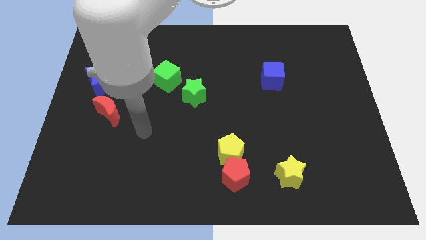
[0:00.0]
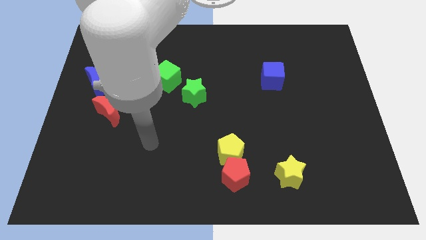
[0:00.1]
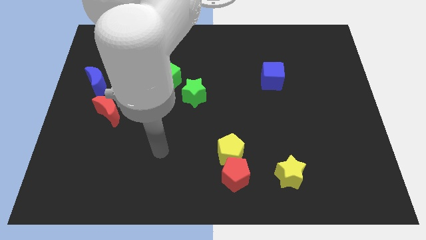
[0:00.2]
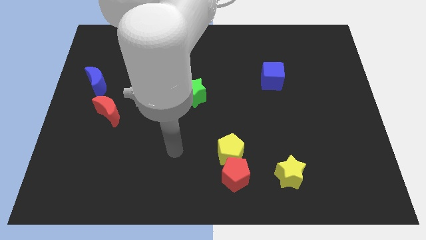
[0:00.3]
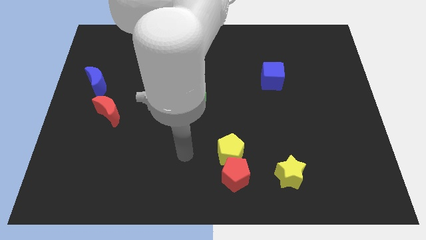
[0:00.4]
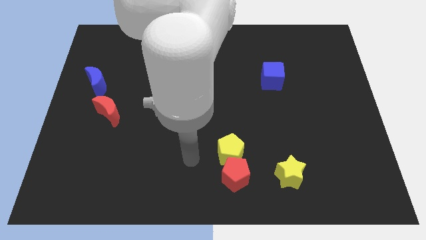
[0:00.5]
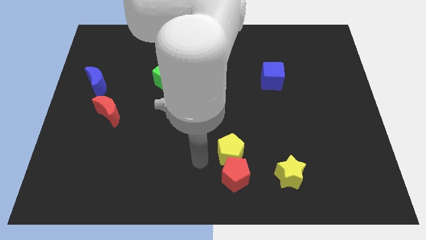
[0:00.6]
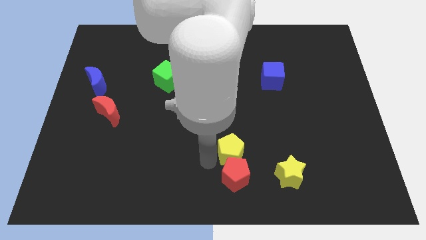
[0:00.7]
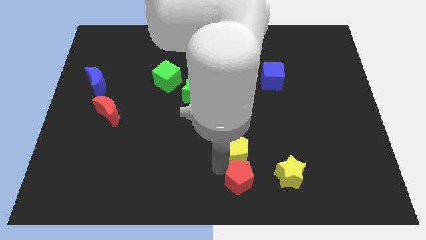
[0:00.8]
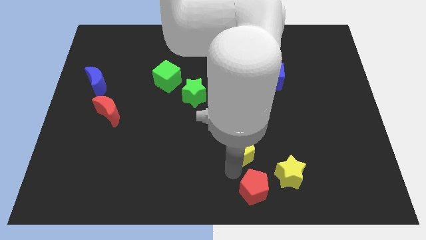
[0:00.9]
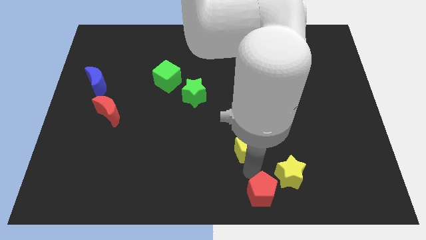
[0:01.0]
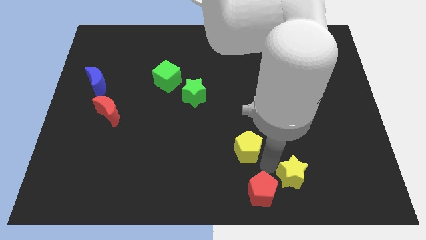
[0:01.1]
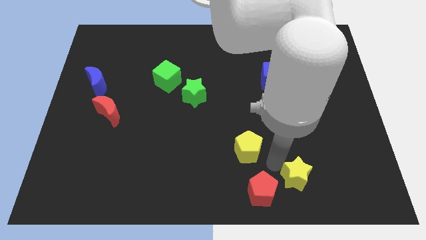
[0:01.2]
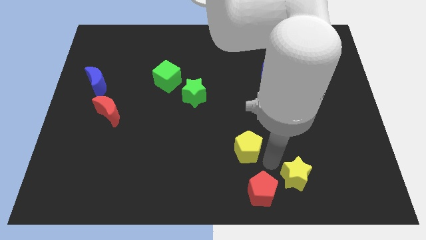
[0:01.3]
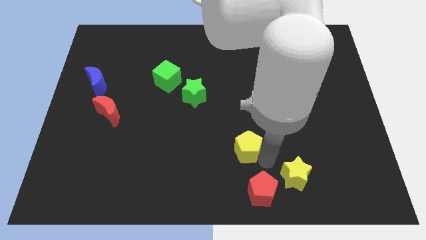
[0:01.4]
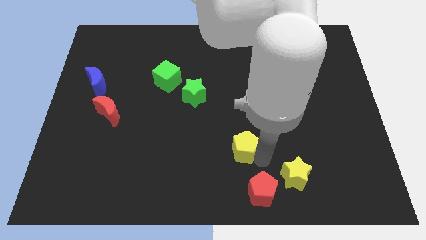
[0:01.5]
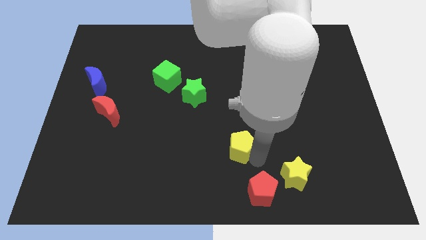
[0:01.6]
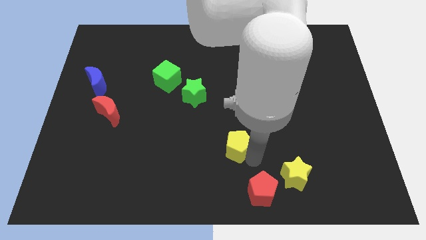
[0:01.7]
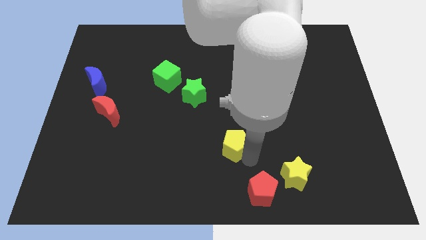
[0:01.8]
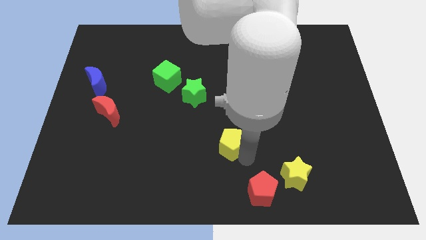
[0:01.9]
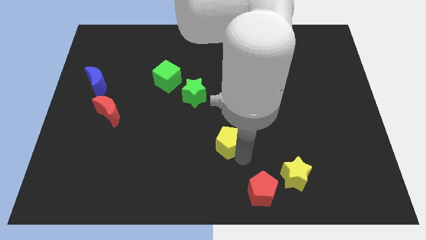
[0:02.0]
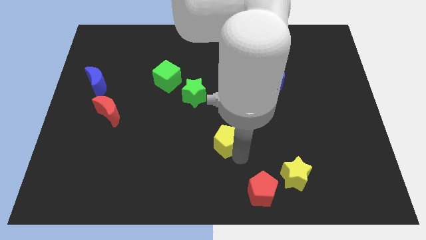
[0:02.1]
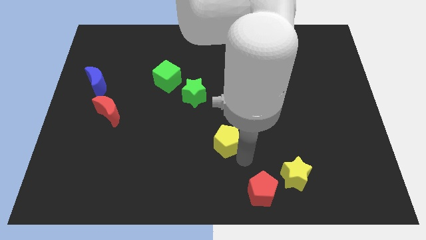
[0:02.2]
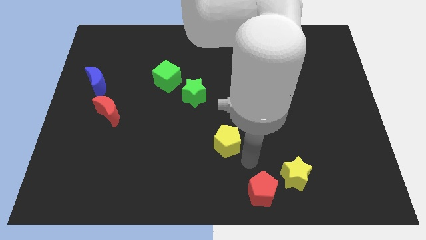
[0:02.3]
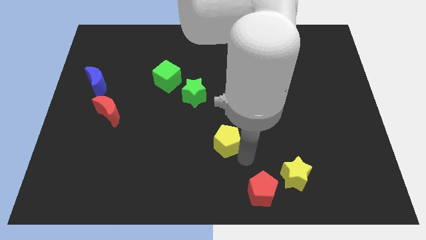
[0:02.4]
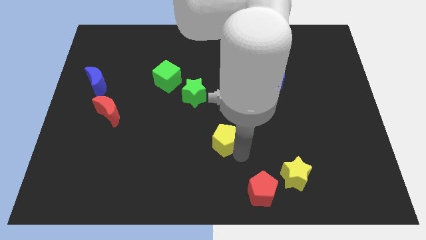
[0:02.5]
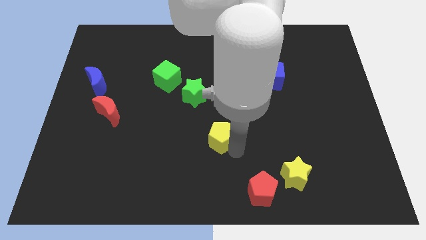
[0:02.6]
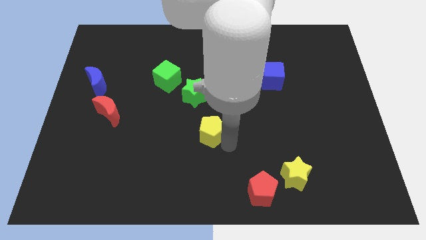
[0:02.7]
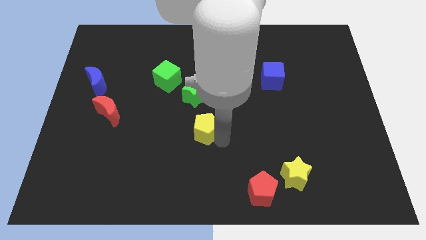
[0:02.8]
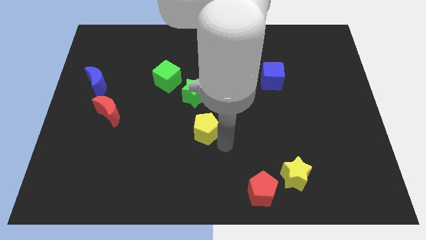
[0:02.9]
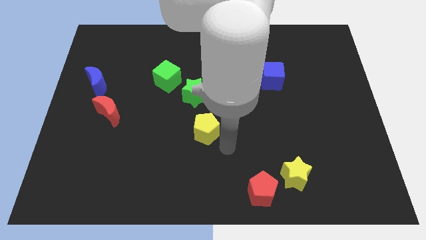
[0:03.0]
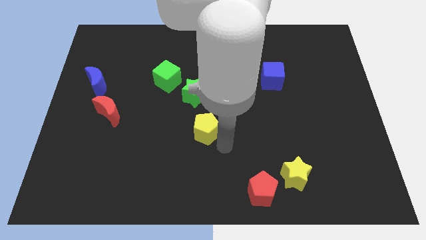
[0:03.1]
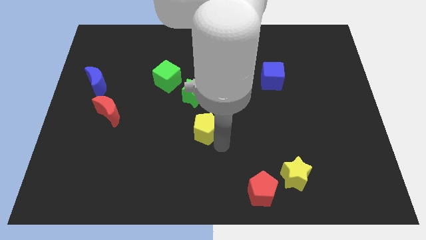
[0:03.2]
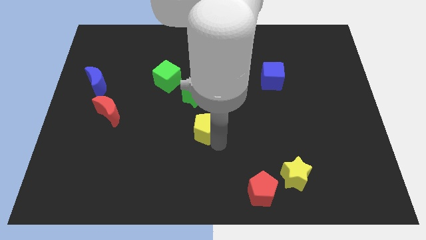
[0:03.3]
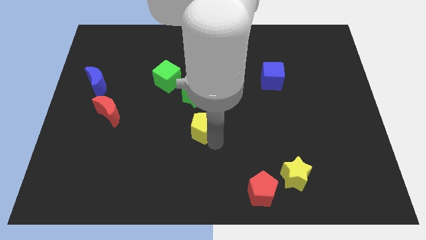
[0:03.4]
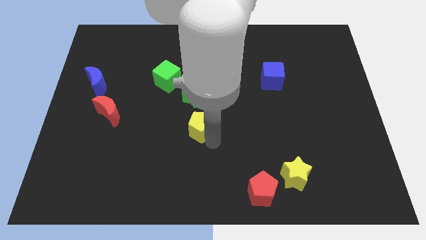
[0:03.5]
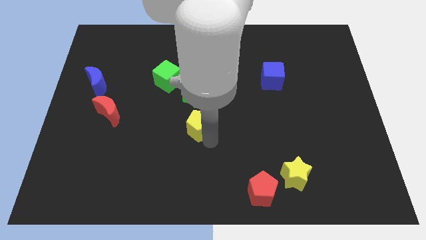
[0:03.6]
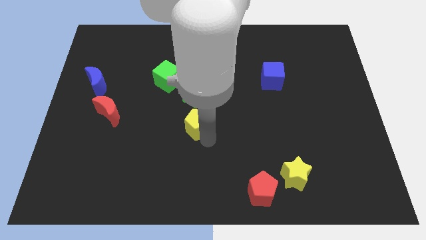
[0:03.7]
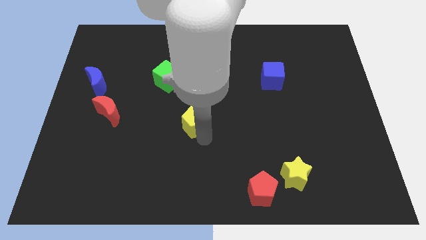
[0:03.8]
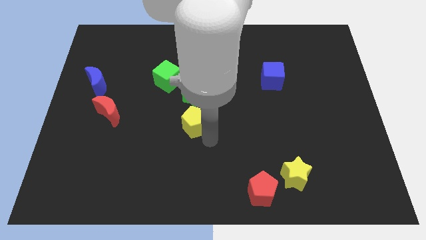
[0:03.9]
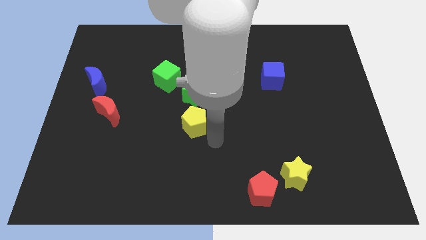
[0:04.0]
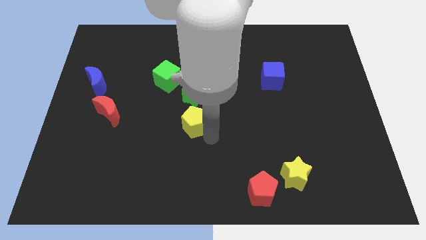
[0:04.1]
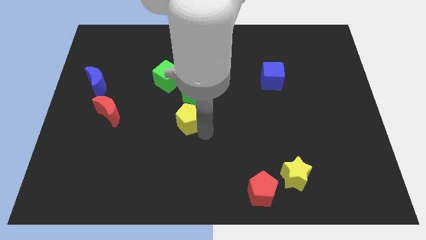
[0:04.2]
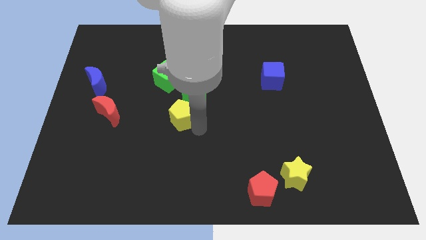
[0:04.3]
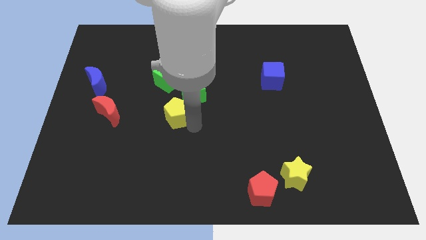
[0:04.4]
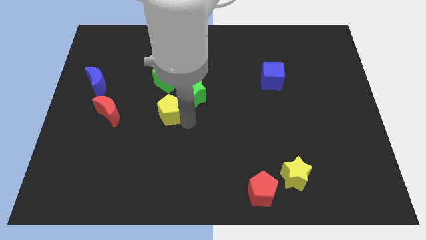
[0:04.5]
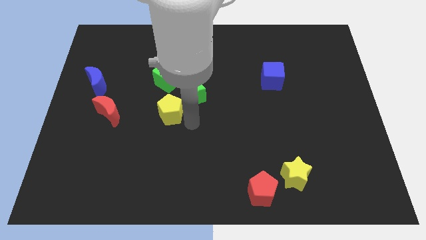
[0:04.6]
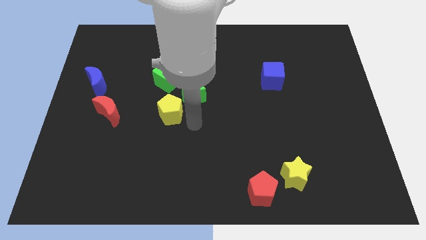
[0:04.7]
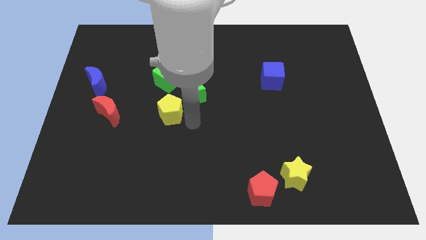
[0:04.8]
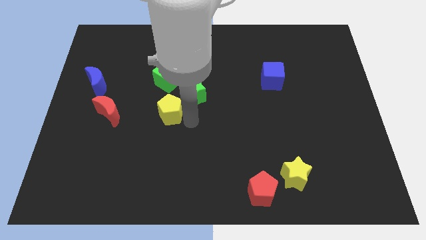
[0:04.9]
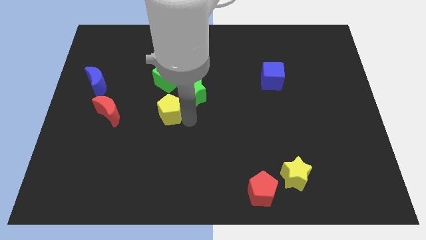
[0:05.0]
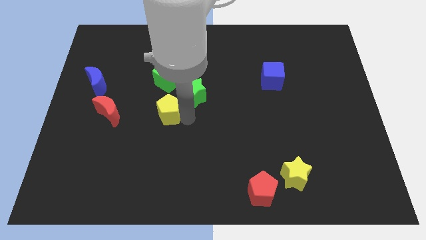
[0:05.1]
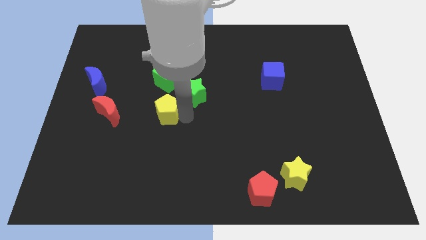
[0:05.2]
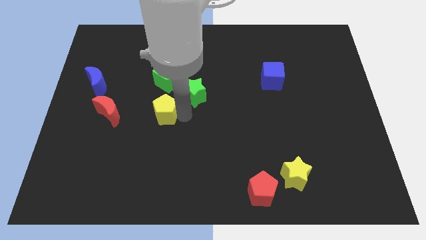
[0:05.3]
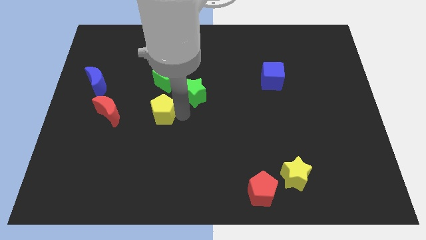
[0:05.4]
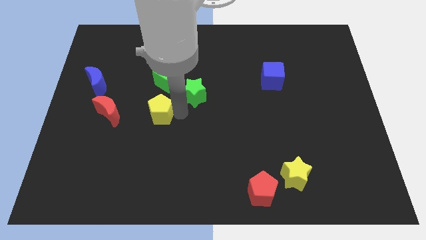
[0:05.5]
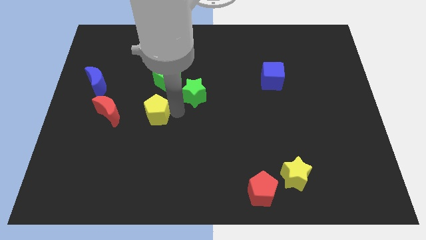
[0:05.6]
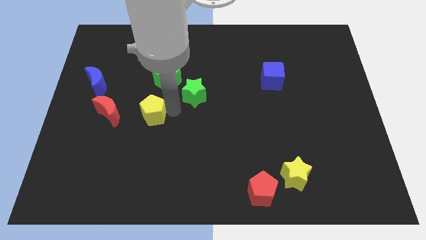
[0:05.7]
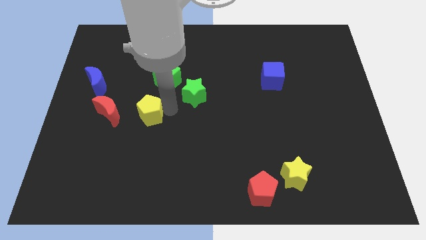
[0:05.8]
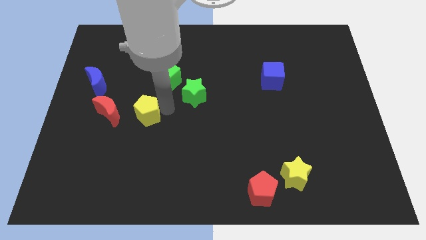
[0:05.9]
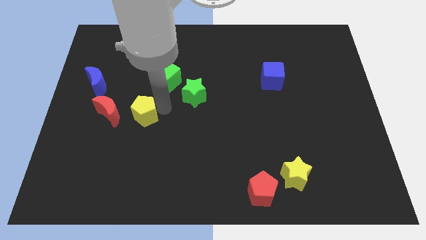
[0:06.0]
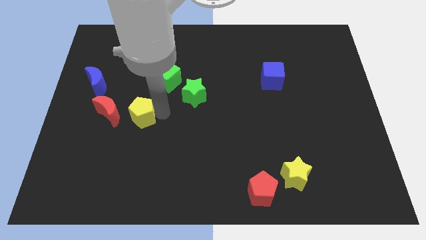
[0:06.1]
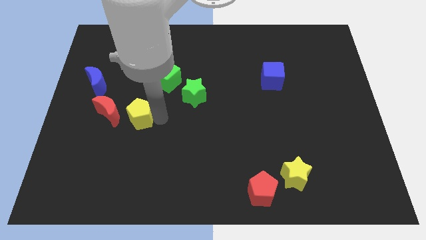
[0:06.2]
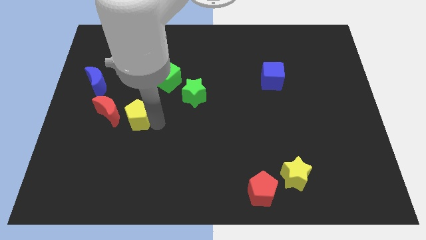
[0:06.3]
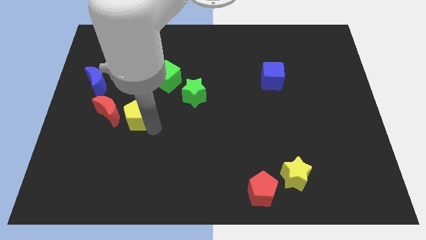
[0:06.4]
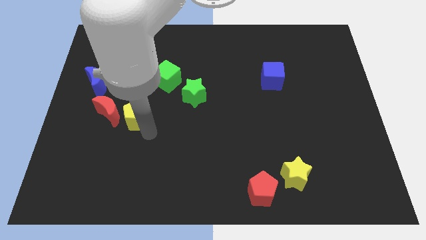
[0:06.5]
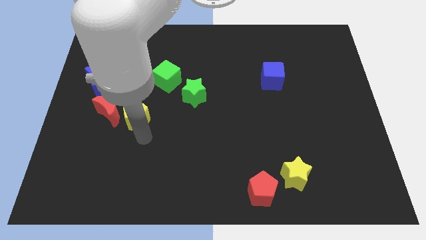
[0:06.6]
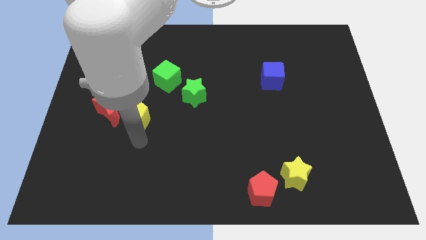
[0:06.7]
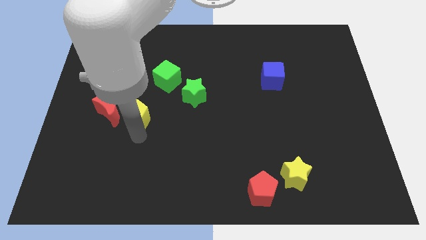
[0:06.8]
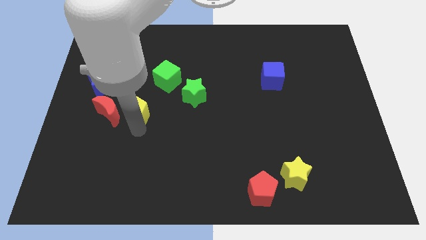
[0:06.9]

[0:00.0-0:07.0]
push the yellow pentagon diagonally up and to the right of the red moon
